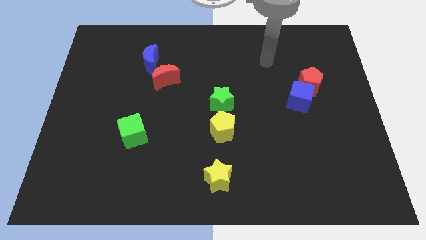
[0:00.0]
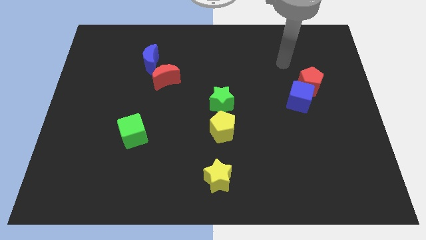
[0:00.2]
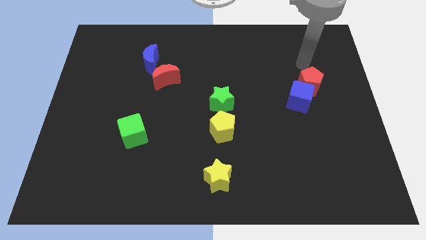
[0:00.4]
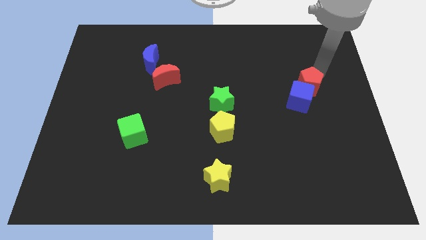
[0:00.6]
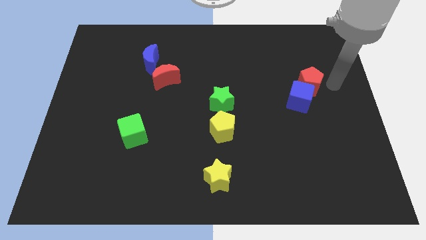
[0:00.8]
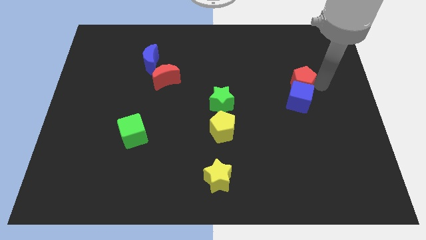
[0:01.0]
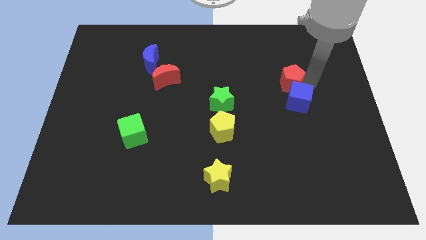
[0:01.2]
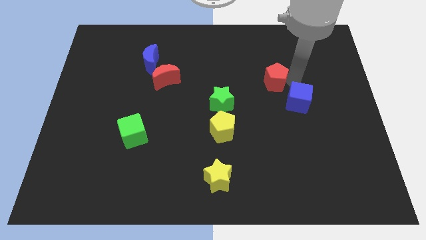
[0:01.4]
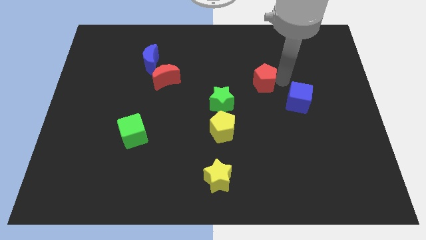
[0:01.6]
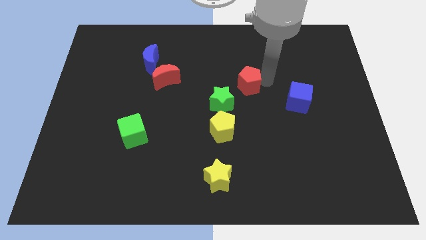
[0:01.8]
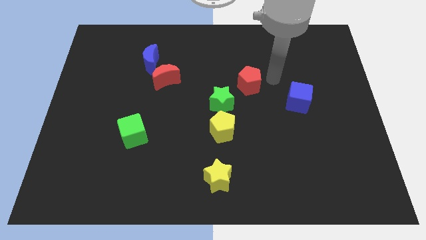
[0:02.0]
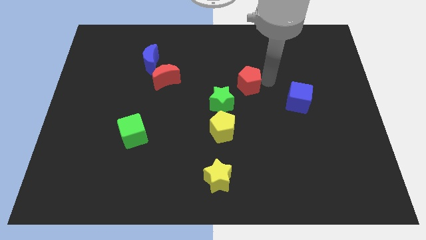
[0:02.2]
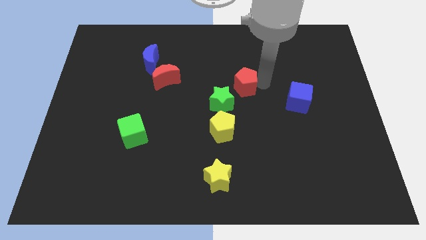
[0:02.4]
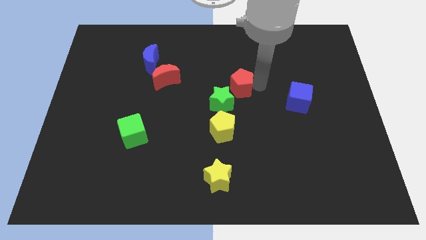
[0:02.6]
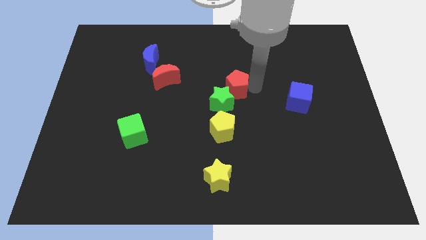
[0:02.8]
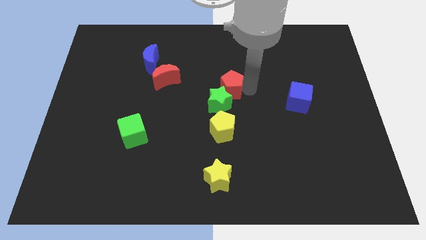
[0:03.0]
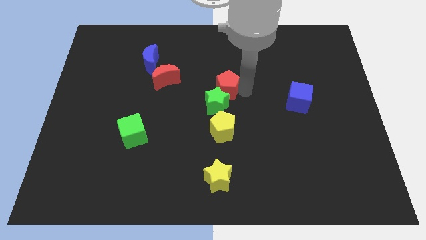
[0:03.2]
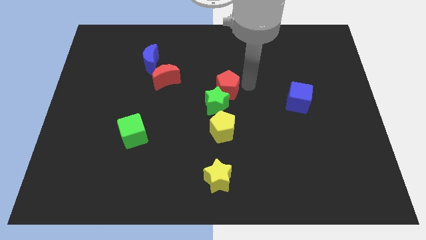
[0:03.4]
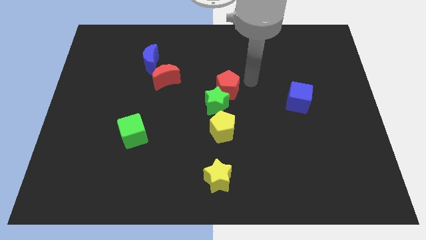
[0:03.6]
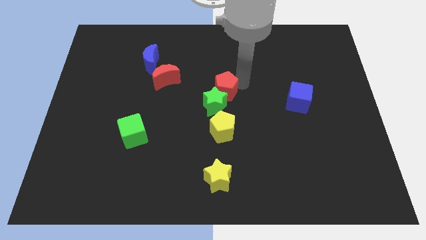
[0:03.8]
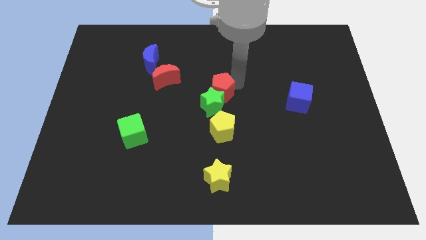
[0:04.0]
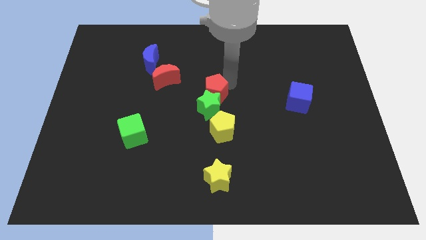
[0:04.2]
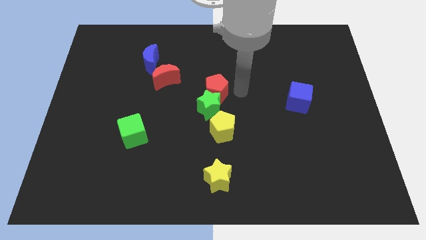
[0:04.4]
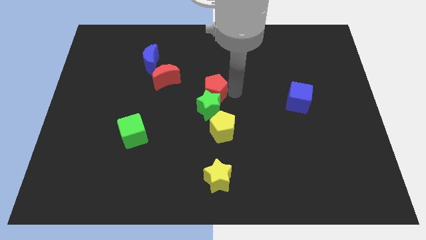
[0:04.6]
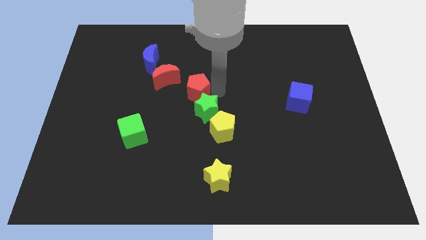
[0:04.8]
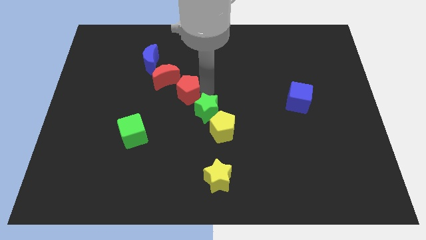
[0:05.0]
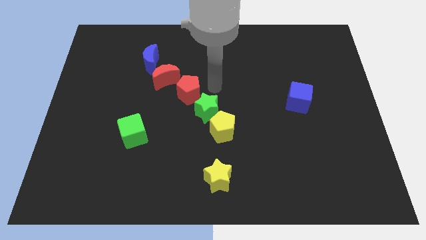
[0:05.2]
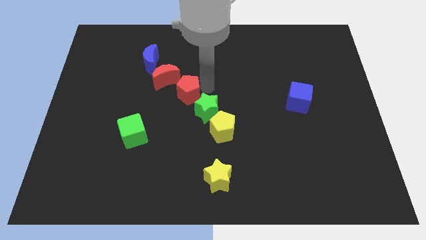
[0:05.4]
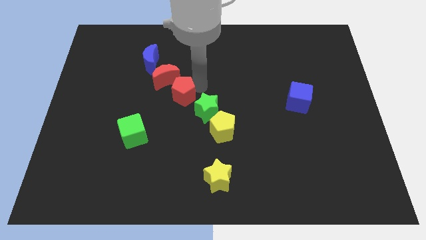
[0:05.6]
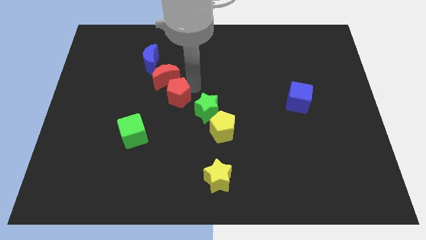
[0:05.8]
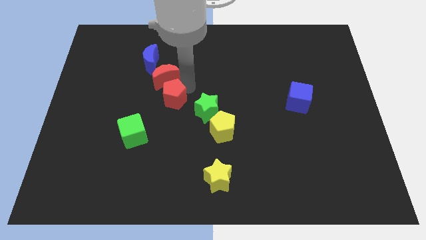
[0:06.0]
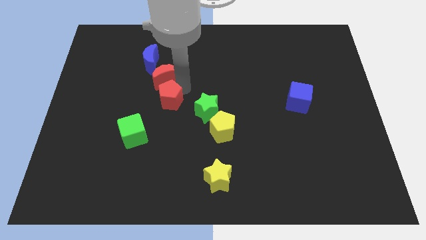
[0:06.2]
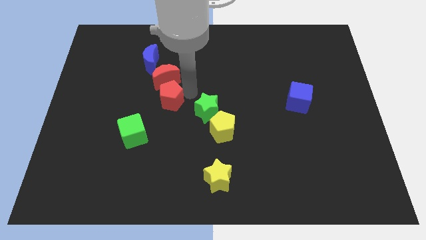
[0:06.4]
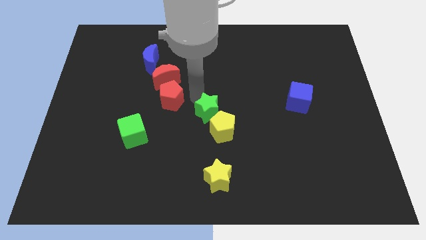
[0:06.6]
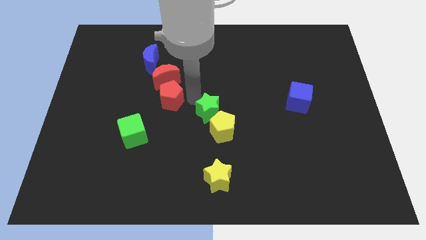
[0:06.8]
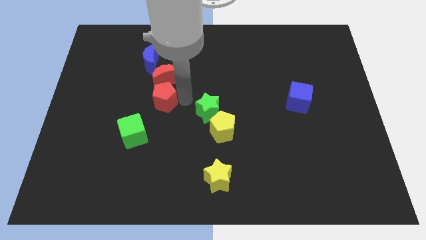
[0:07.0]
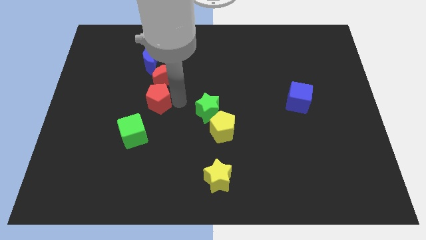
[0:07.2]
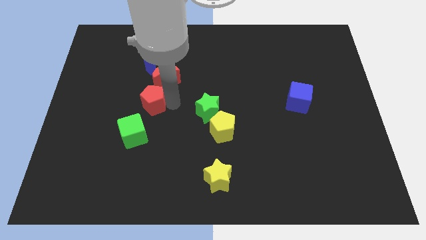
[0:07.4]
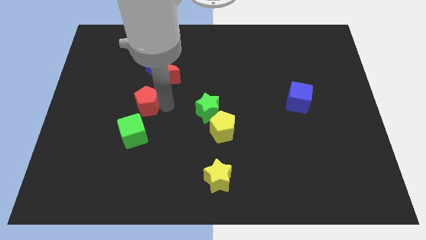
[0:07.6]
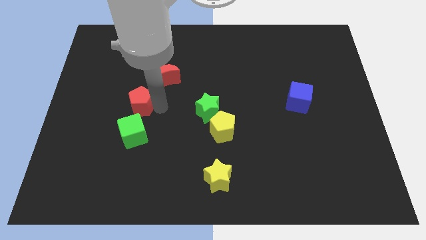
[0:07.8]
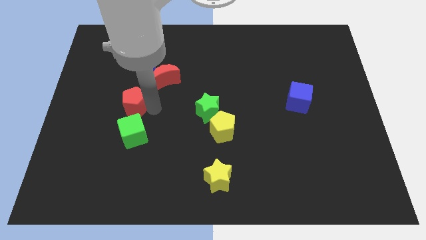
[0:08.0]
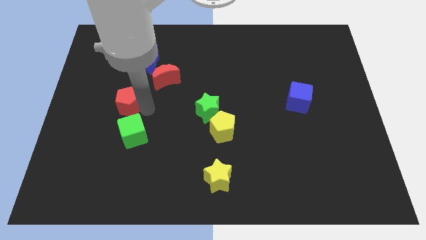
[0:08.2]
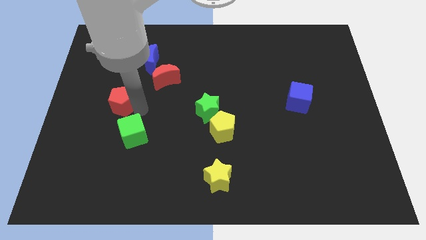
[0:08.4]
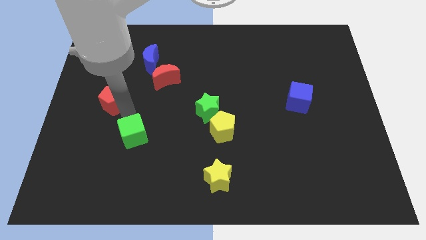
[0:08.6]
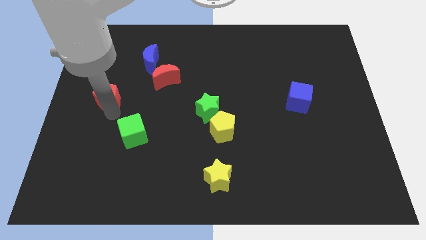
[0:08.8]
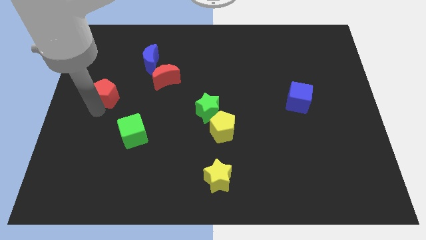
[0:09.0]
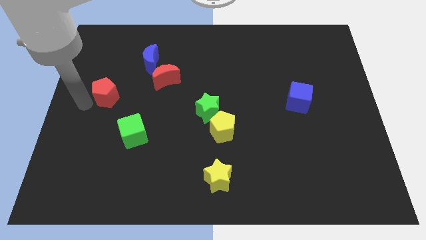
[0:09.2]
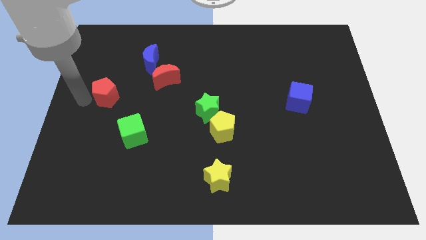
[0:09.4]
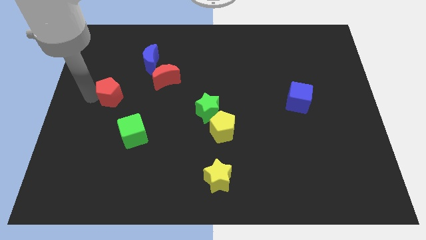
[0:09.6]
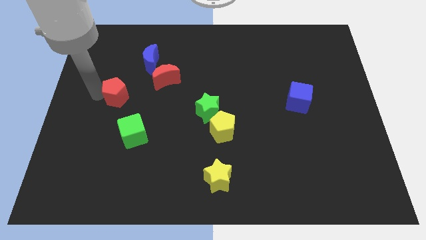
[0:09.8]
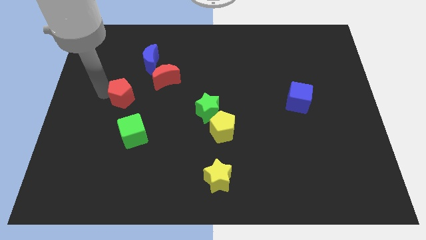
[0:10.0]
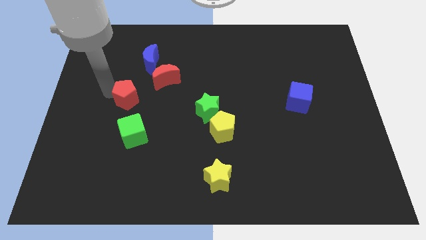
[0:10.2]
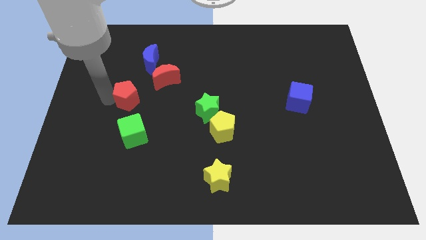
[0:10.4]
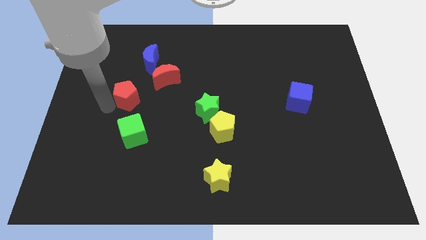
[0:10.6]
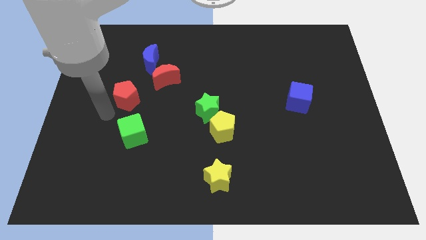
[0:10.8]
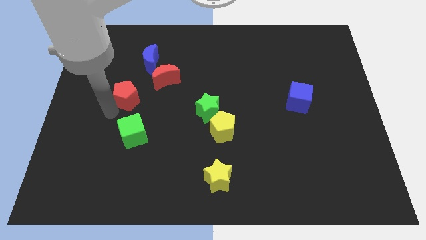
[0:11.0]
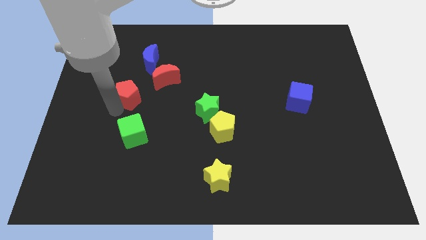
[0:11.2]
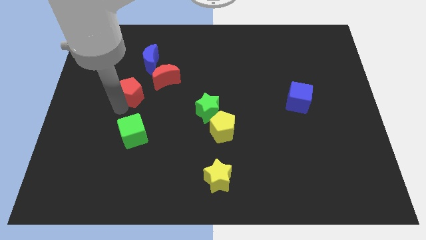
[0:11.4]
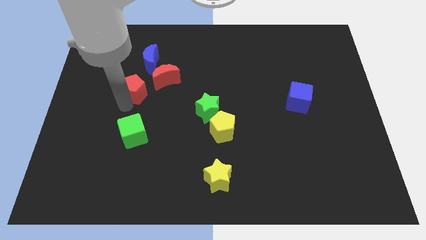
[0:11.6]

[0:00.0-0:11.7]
move the red pentagon to the bottom left side of the blue moon
